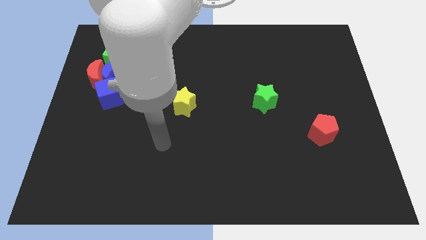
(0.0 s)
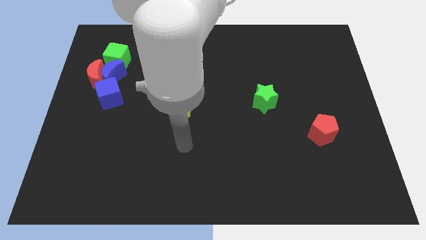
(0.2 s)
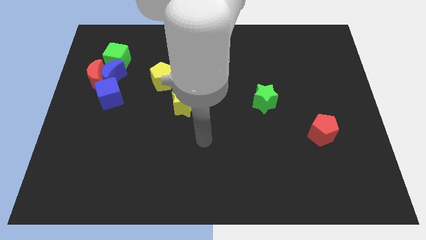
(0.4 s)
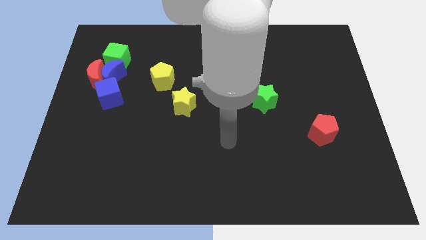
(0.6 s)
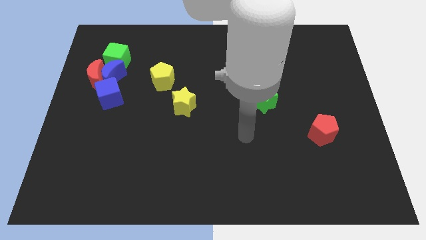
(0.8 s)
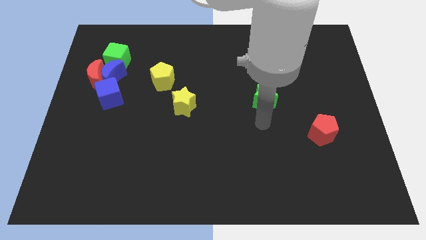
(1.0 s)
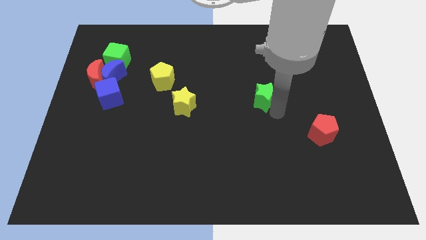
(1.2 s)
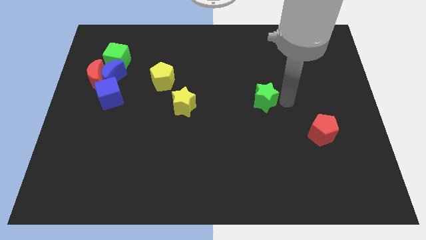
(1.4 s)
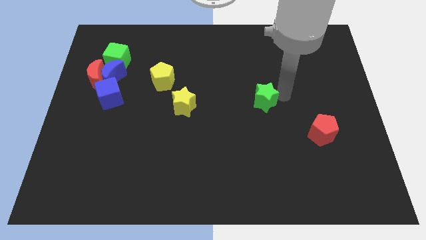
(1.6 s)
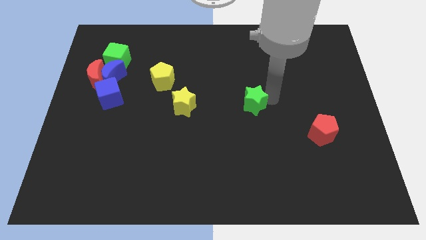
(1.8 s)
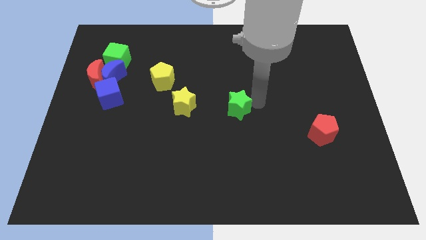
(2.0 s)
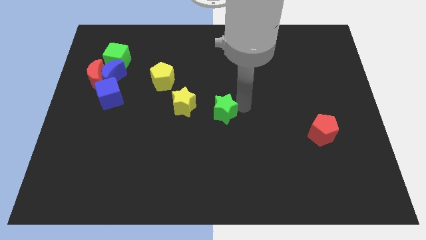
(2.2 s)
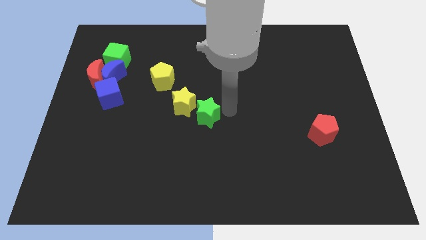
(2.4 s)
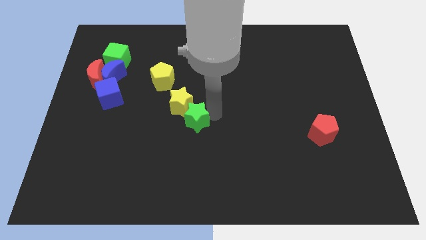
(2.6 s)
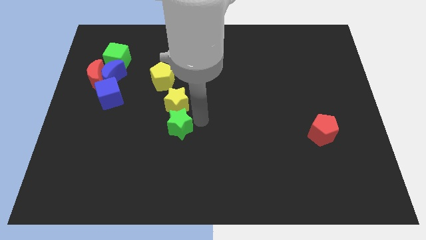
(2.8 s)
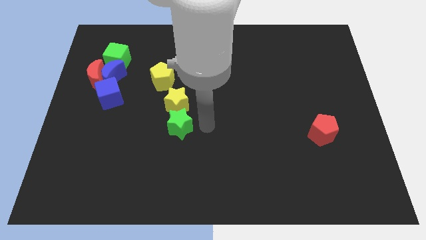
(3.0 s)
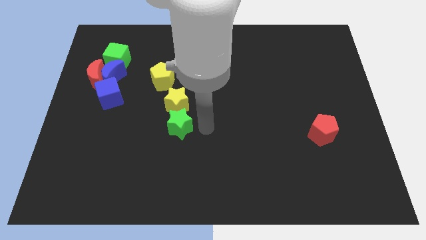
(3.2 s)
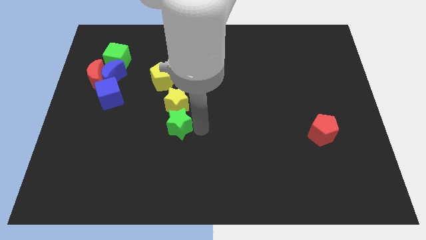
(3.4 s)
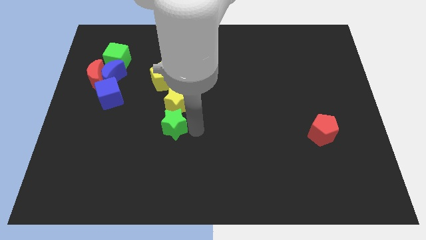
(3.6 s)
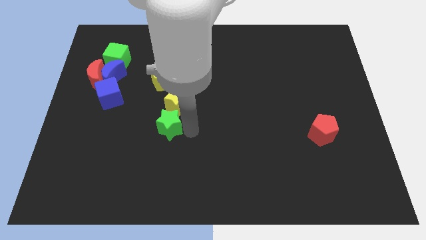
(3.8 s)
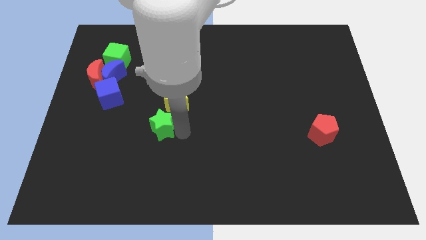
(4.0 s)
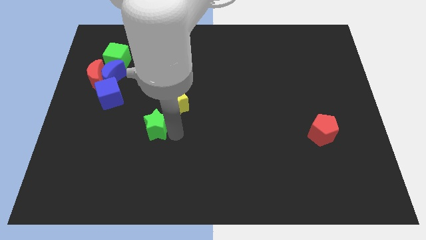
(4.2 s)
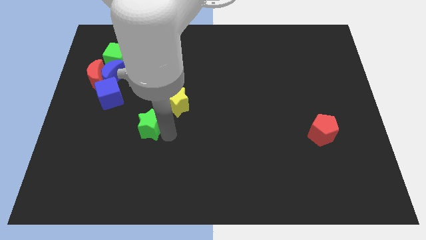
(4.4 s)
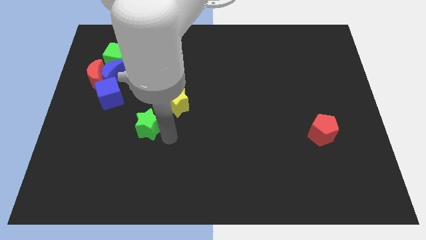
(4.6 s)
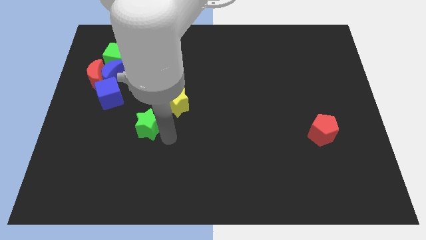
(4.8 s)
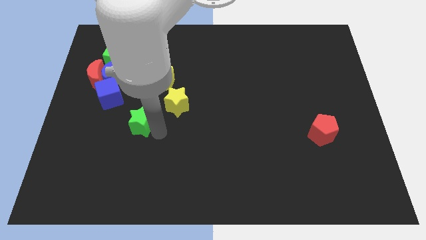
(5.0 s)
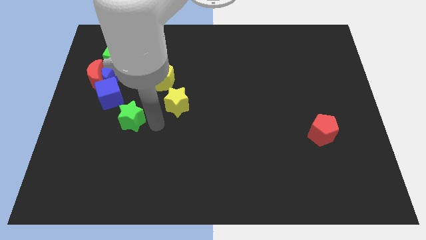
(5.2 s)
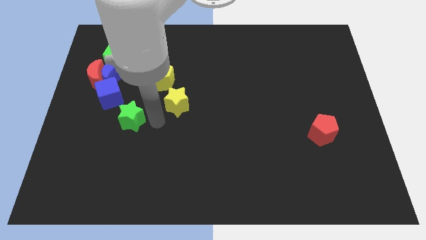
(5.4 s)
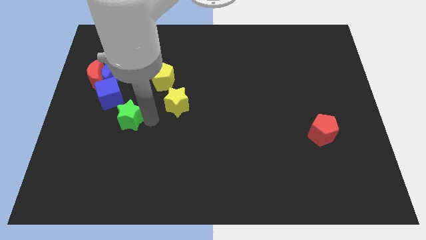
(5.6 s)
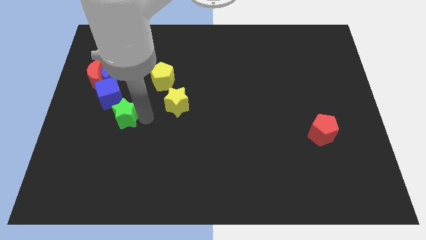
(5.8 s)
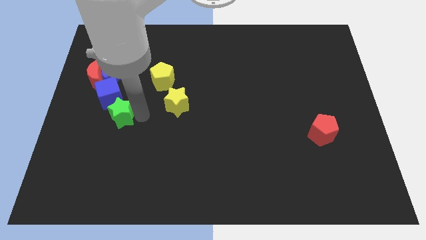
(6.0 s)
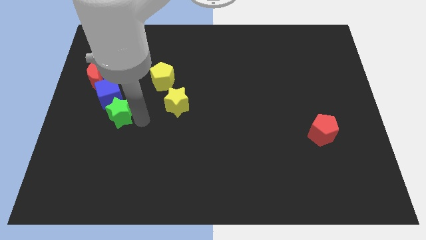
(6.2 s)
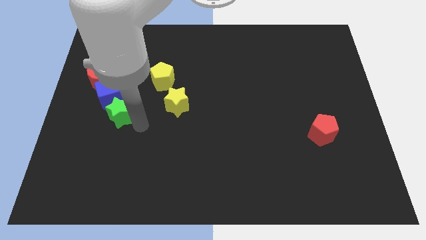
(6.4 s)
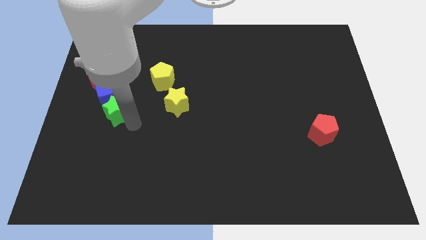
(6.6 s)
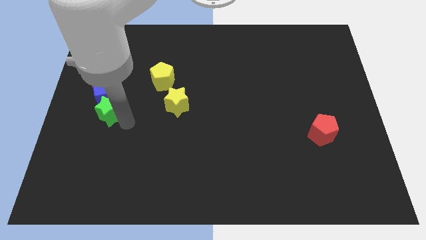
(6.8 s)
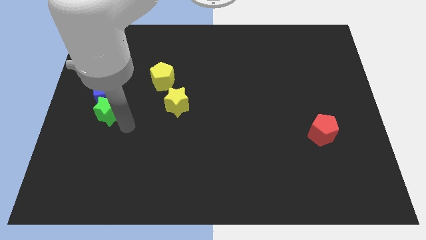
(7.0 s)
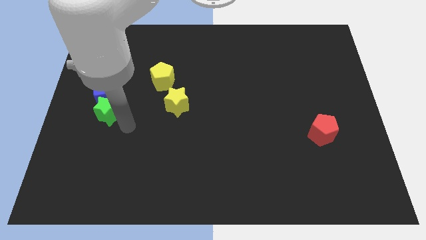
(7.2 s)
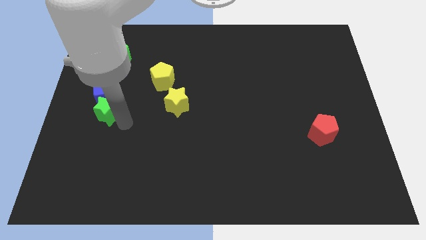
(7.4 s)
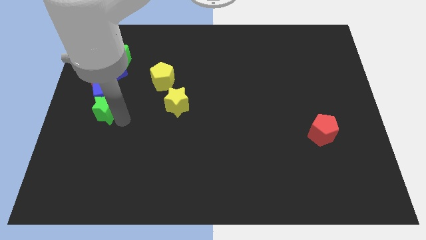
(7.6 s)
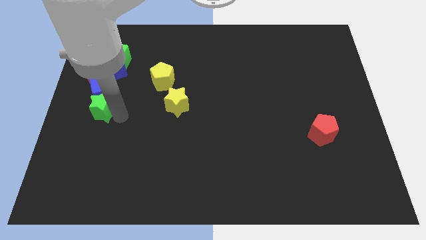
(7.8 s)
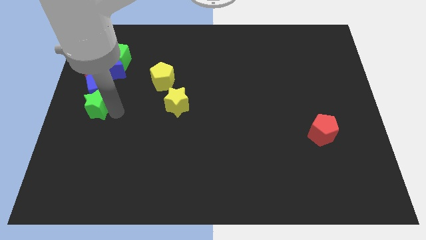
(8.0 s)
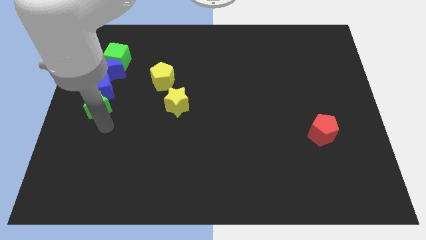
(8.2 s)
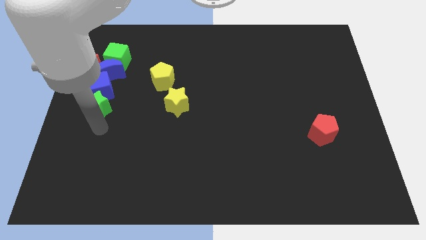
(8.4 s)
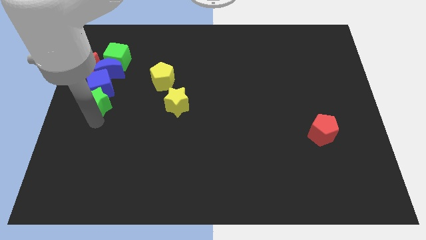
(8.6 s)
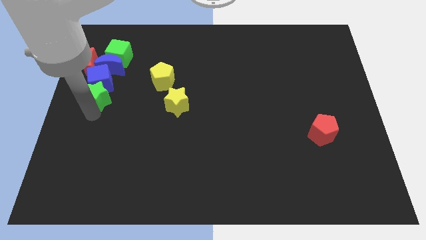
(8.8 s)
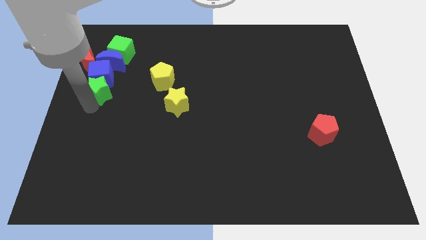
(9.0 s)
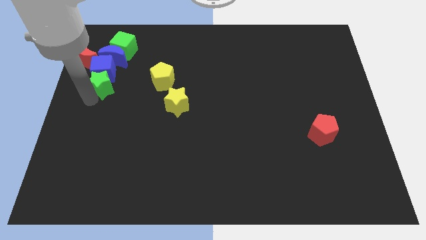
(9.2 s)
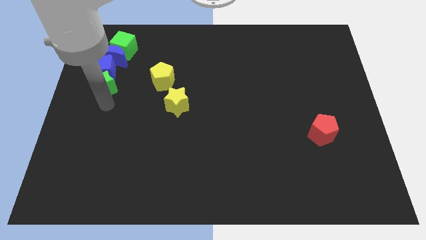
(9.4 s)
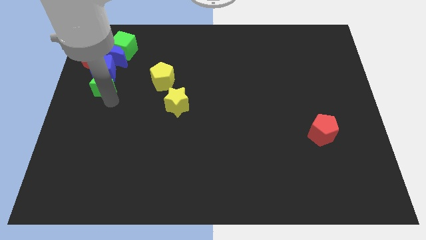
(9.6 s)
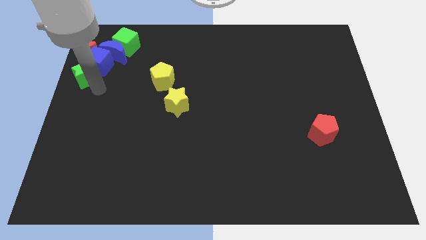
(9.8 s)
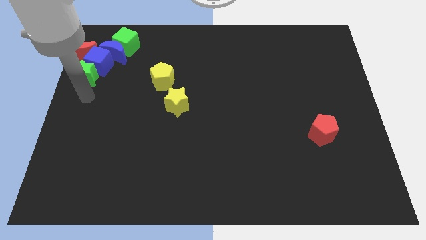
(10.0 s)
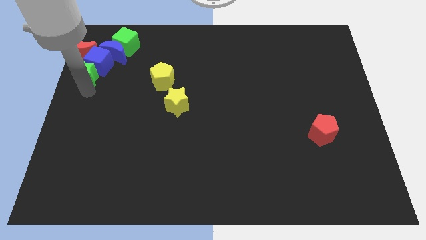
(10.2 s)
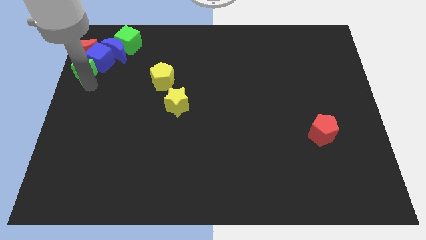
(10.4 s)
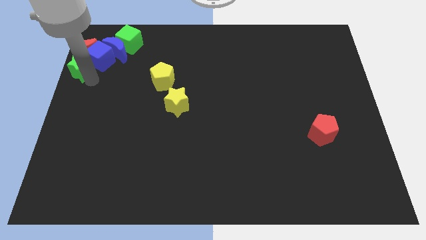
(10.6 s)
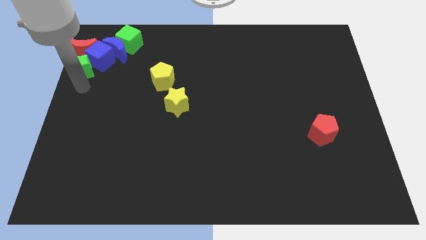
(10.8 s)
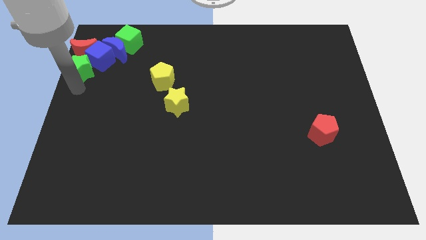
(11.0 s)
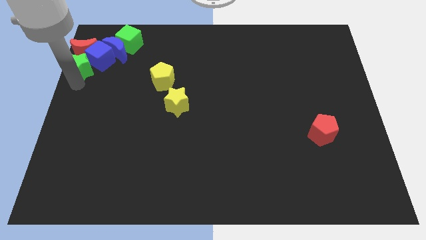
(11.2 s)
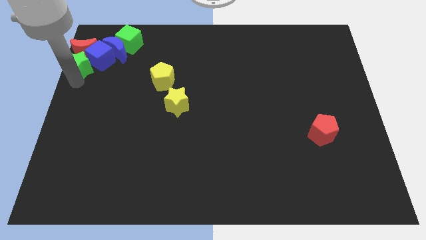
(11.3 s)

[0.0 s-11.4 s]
move the green star towards the red moon

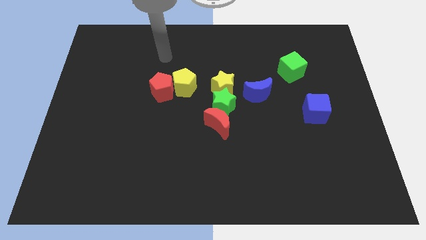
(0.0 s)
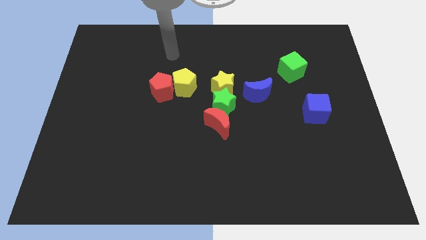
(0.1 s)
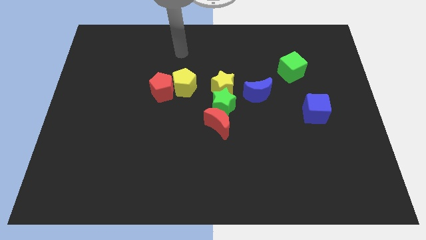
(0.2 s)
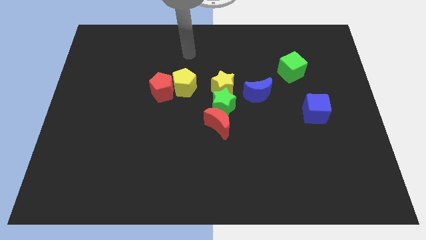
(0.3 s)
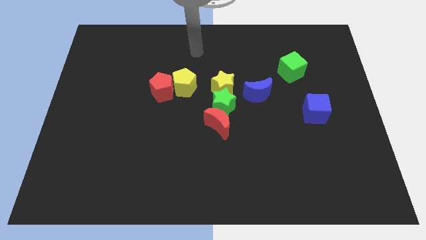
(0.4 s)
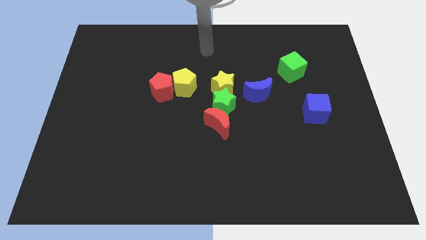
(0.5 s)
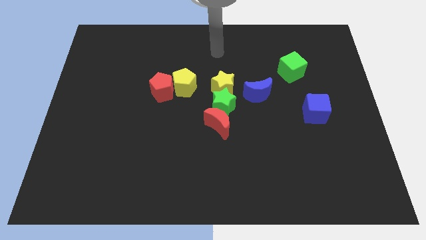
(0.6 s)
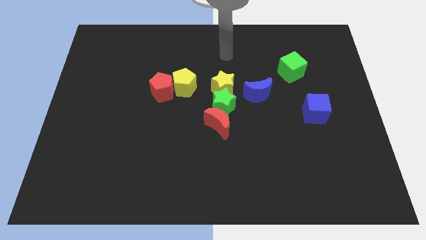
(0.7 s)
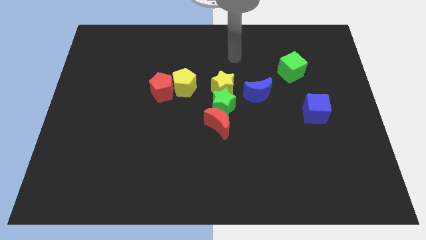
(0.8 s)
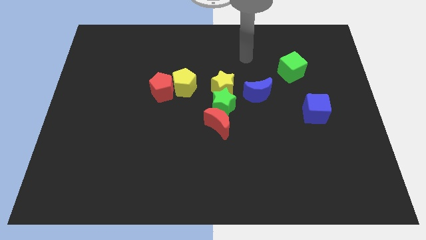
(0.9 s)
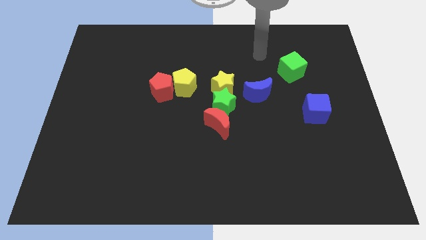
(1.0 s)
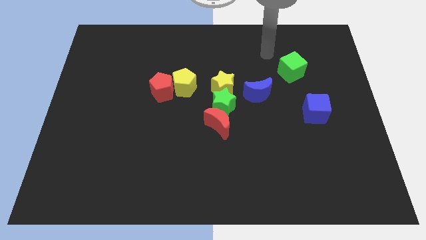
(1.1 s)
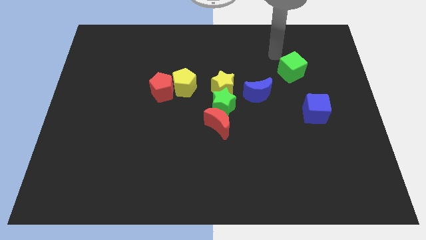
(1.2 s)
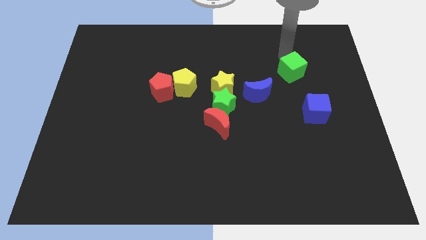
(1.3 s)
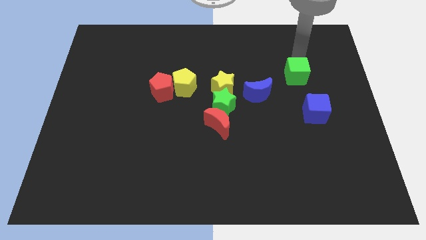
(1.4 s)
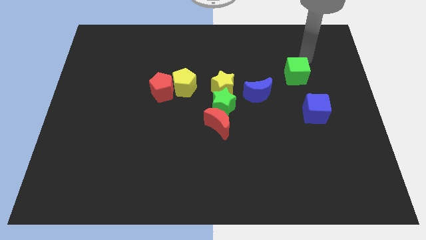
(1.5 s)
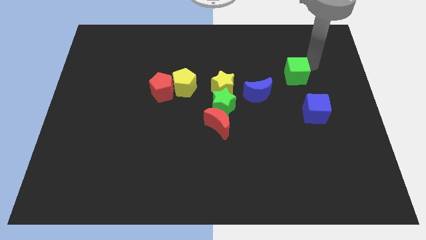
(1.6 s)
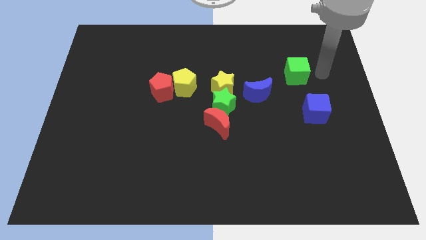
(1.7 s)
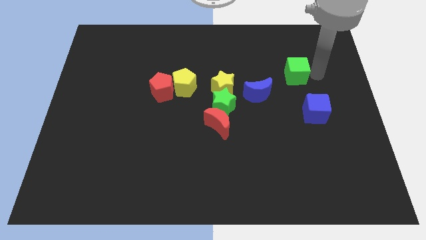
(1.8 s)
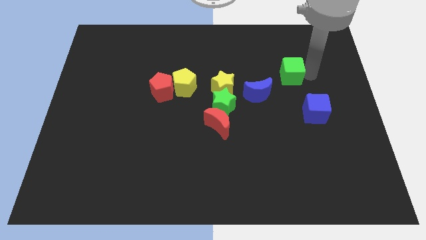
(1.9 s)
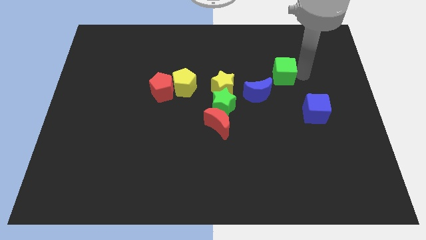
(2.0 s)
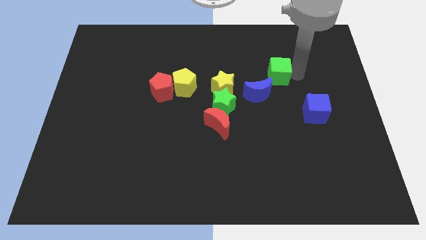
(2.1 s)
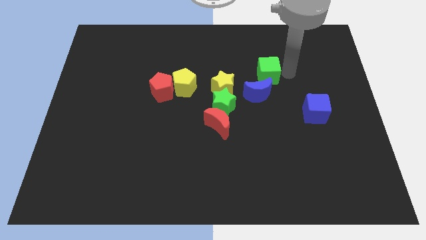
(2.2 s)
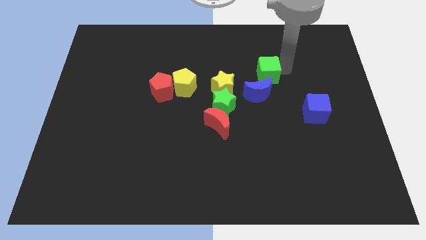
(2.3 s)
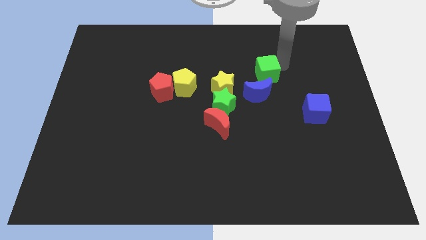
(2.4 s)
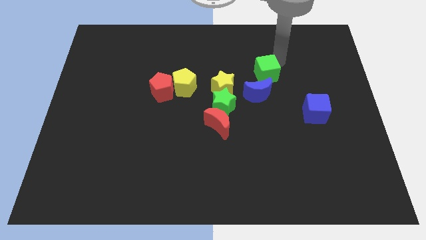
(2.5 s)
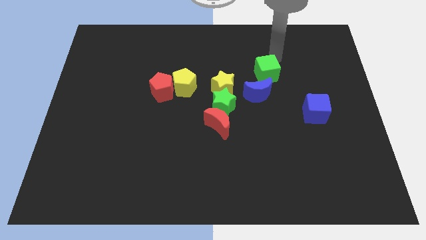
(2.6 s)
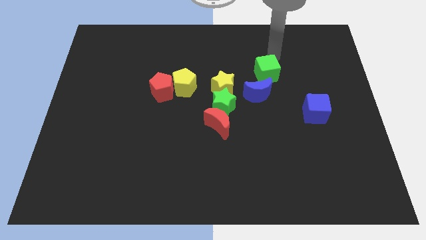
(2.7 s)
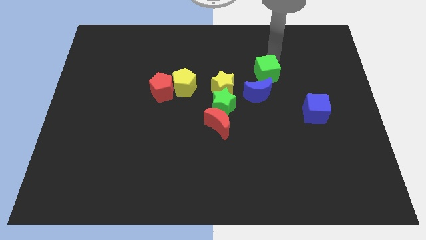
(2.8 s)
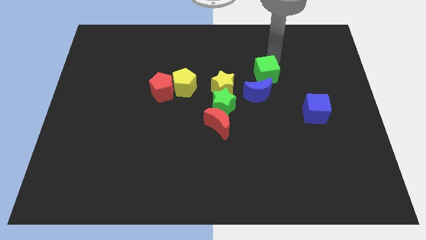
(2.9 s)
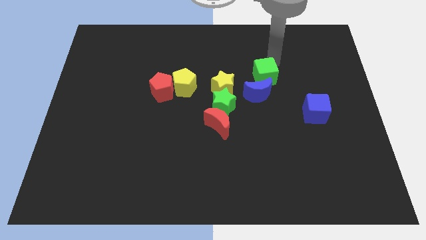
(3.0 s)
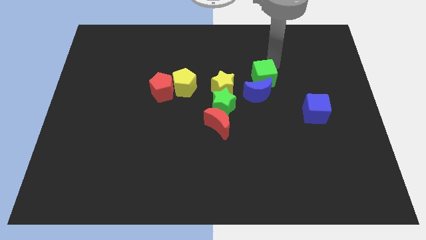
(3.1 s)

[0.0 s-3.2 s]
put the green cube to the blue moon
